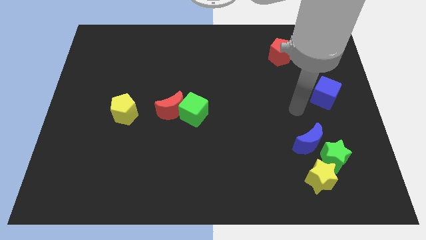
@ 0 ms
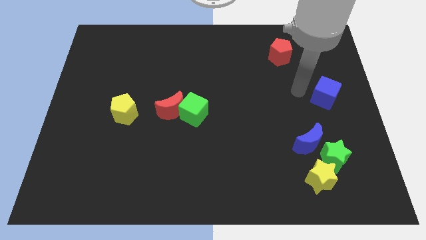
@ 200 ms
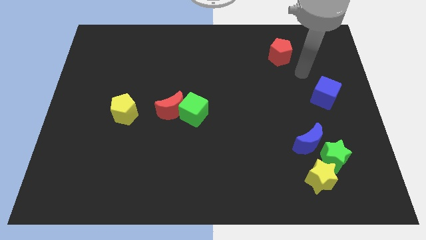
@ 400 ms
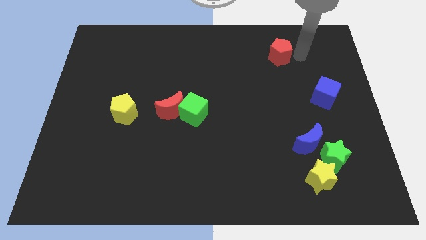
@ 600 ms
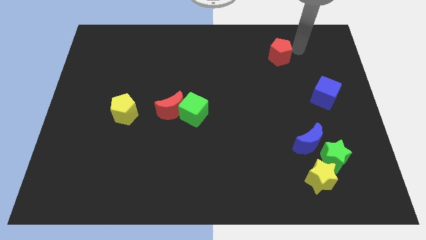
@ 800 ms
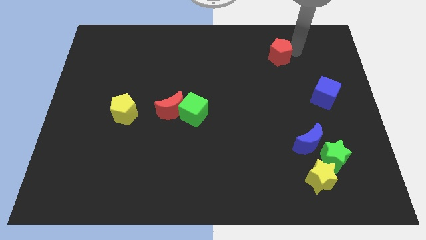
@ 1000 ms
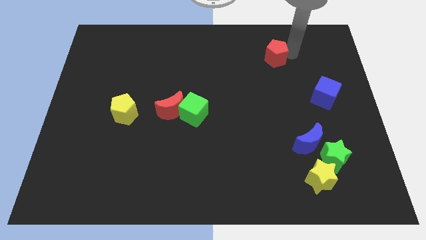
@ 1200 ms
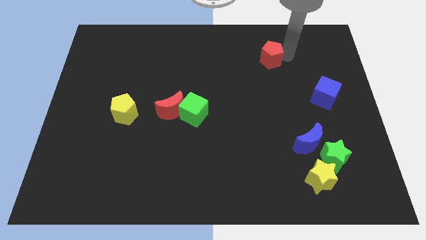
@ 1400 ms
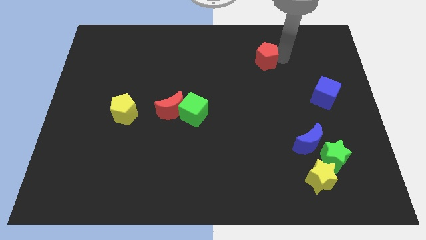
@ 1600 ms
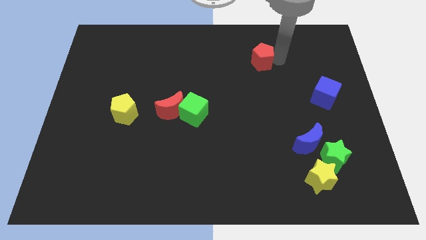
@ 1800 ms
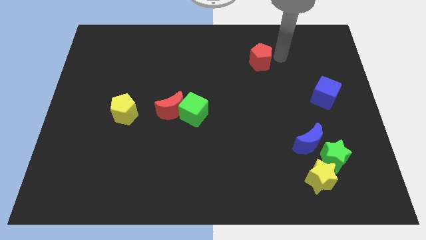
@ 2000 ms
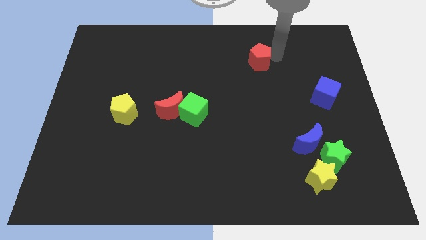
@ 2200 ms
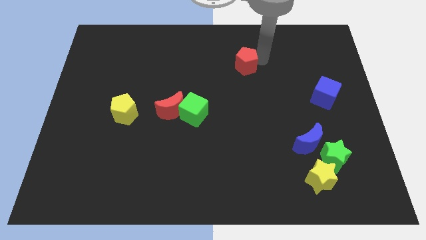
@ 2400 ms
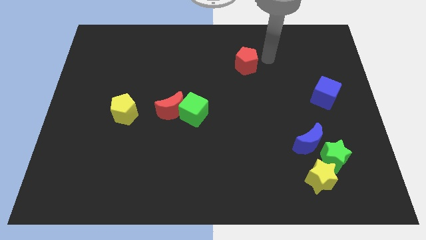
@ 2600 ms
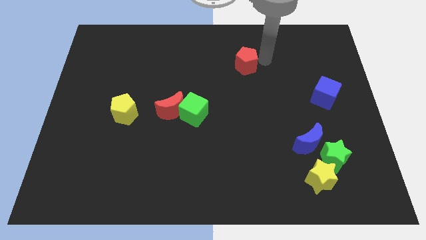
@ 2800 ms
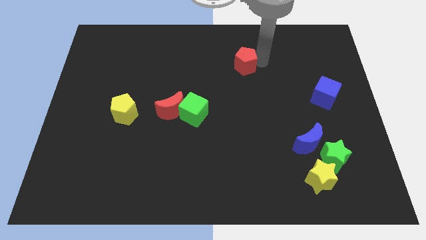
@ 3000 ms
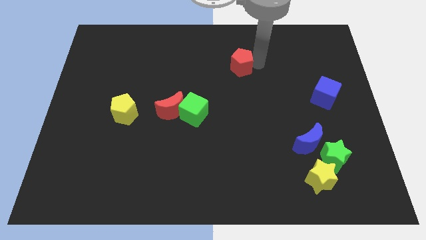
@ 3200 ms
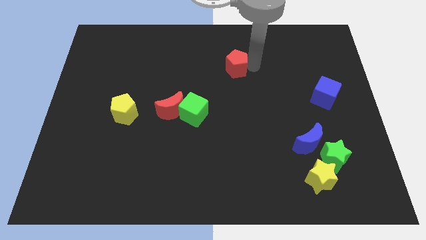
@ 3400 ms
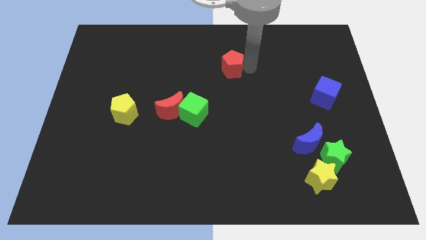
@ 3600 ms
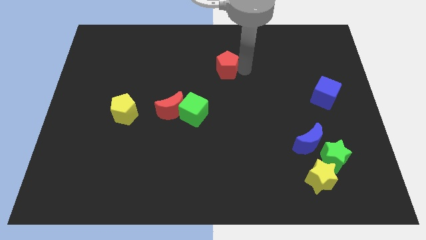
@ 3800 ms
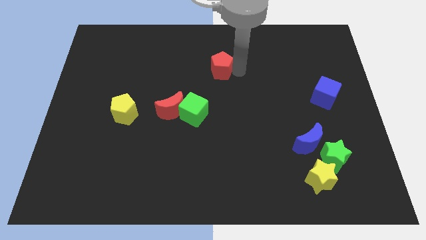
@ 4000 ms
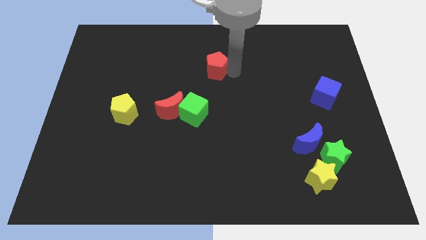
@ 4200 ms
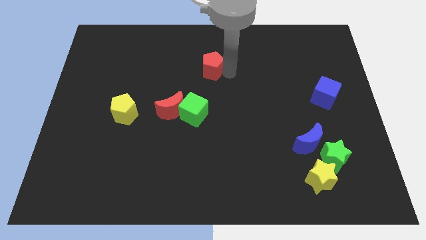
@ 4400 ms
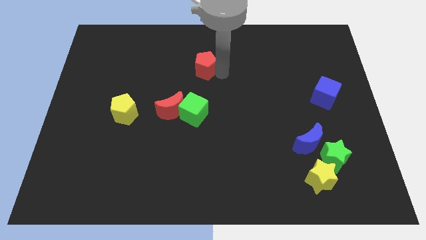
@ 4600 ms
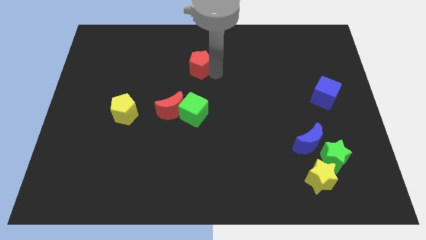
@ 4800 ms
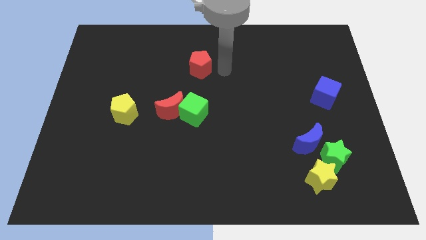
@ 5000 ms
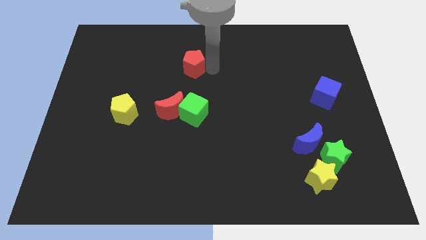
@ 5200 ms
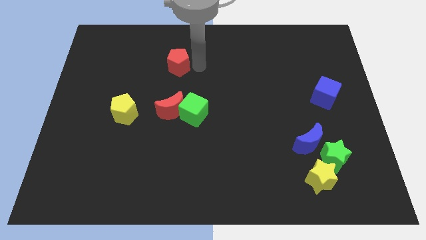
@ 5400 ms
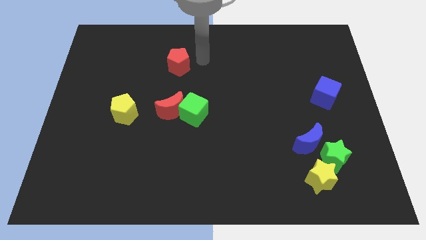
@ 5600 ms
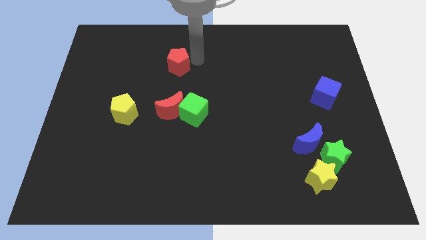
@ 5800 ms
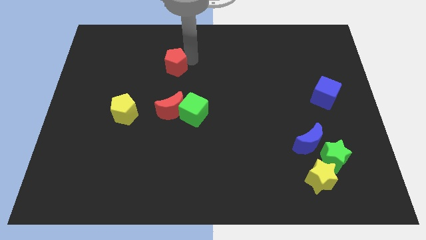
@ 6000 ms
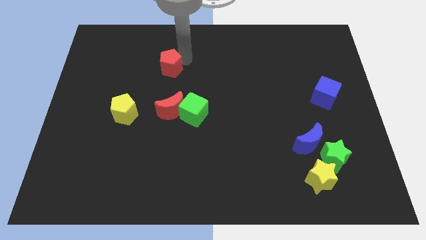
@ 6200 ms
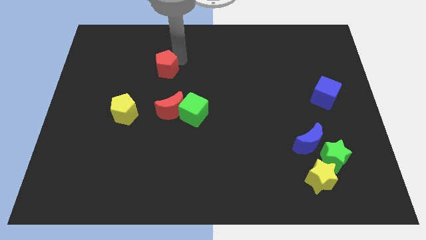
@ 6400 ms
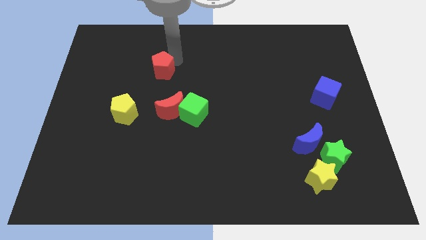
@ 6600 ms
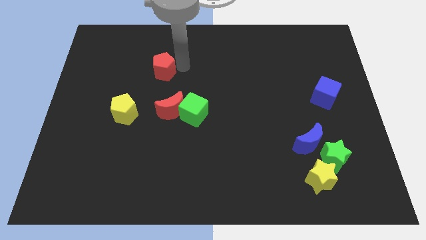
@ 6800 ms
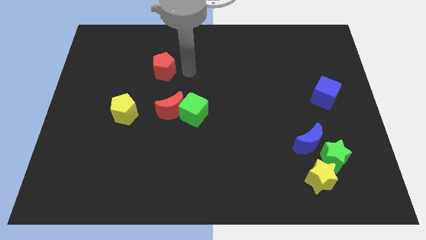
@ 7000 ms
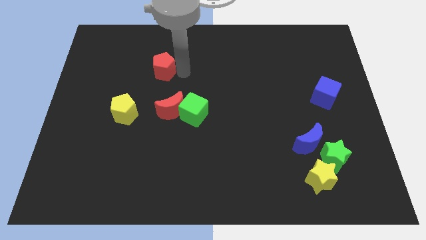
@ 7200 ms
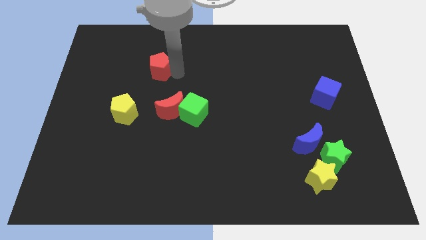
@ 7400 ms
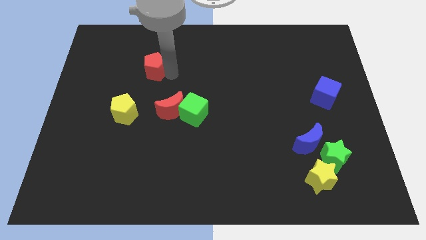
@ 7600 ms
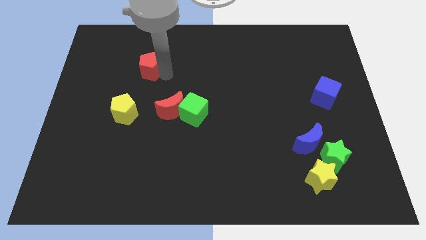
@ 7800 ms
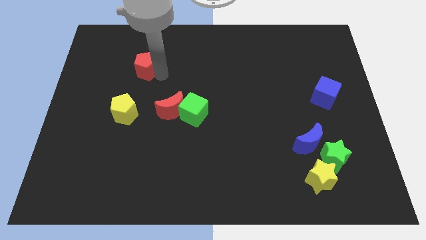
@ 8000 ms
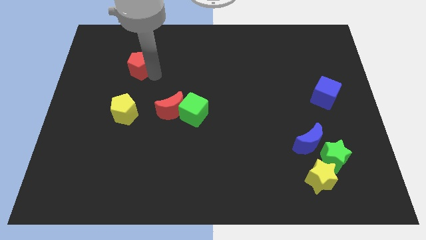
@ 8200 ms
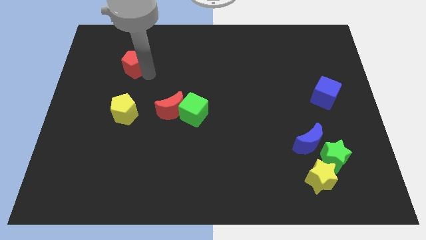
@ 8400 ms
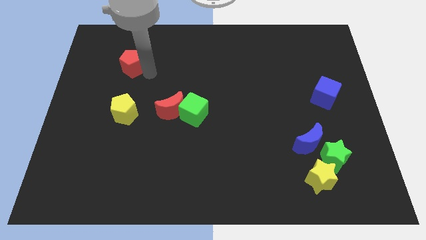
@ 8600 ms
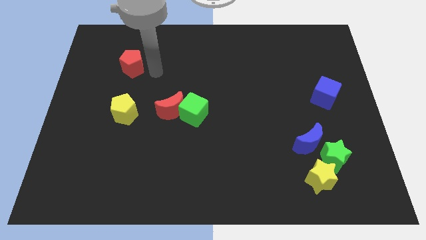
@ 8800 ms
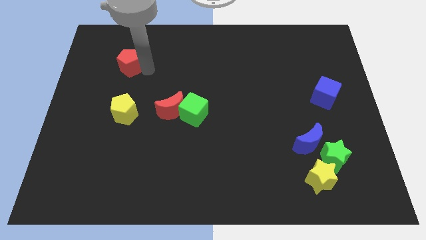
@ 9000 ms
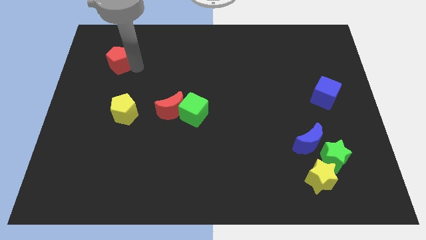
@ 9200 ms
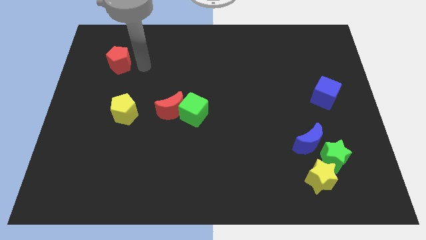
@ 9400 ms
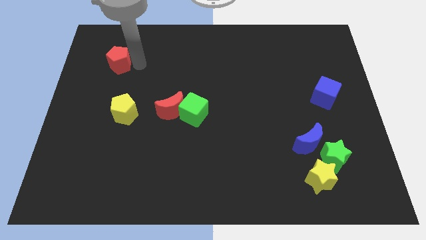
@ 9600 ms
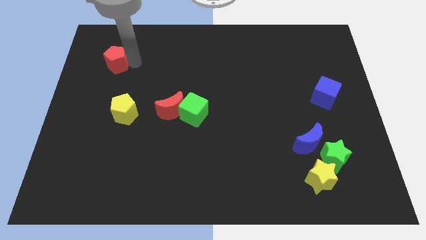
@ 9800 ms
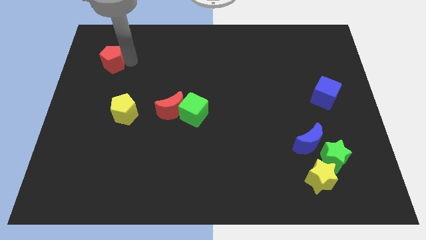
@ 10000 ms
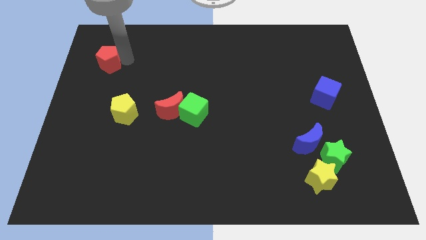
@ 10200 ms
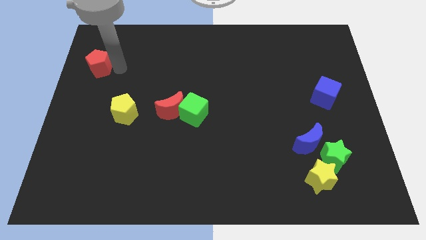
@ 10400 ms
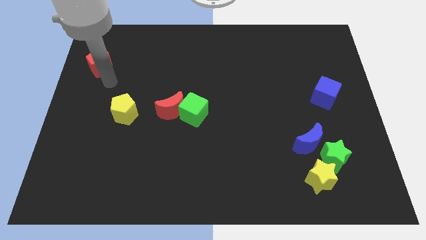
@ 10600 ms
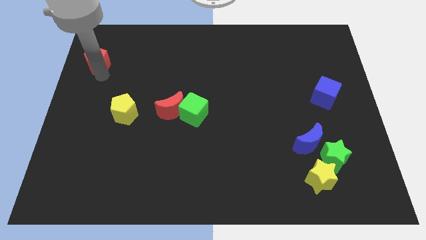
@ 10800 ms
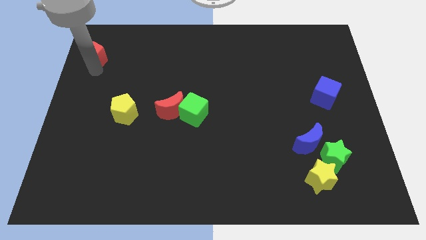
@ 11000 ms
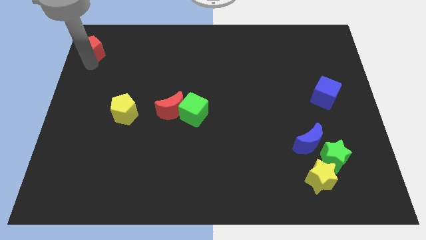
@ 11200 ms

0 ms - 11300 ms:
put the red pentagon to the top left of the board
